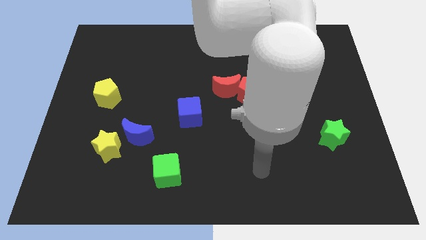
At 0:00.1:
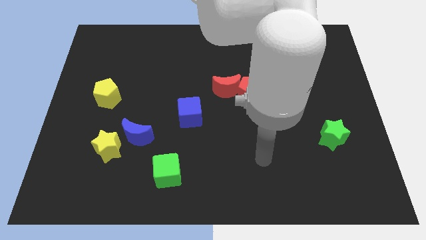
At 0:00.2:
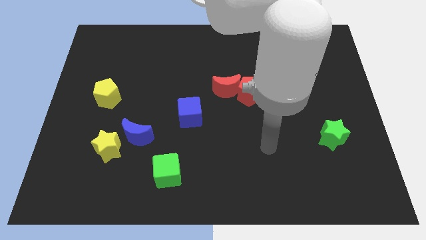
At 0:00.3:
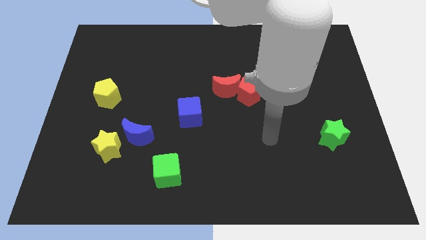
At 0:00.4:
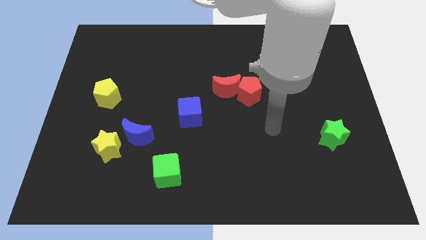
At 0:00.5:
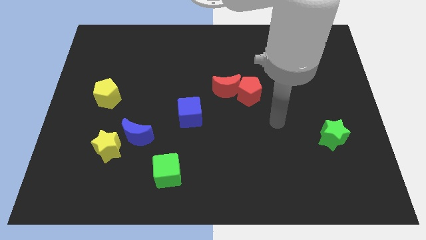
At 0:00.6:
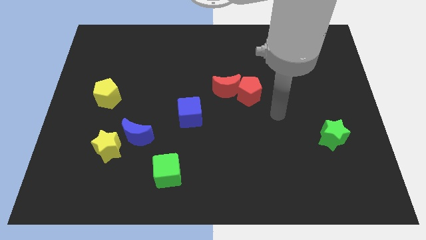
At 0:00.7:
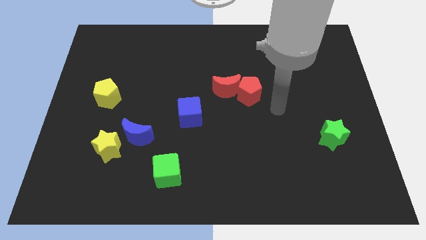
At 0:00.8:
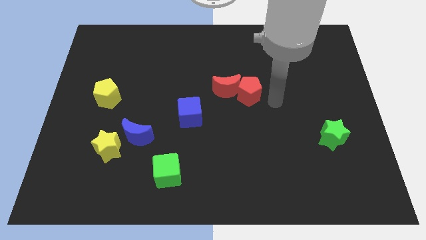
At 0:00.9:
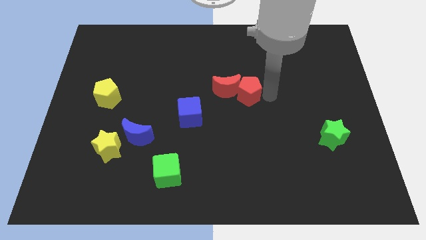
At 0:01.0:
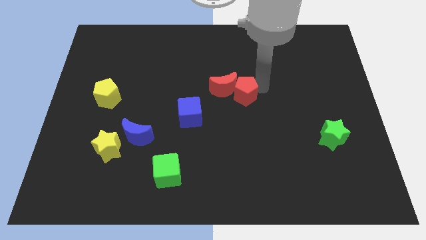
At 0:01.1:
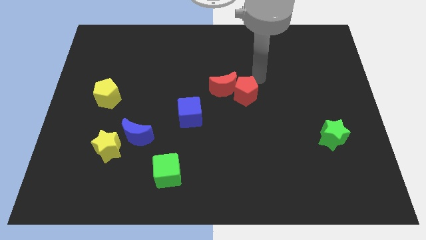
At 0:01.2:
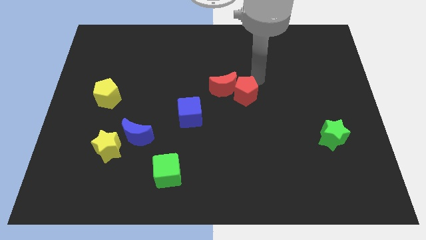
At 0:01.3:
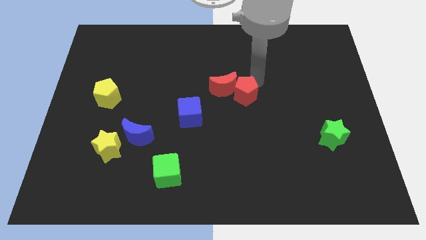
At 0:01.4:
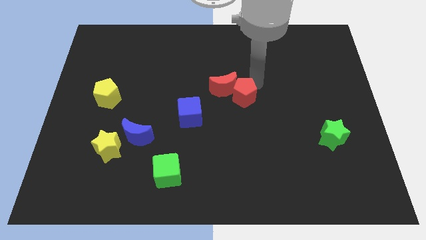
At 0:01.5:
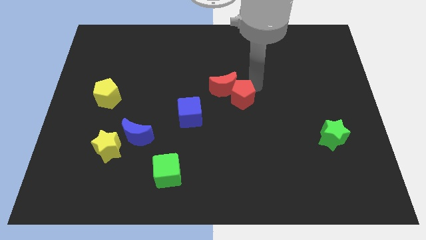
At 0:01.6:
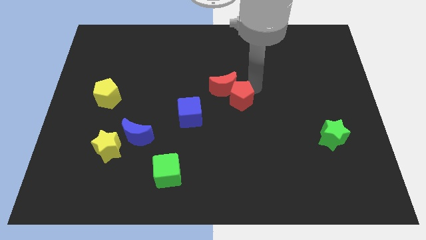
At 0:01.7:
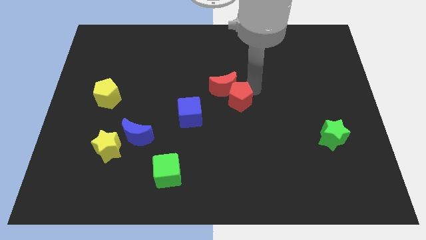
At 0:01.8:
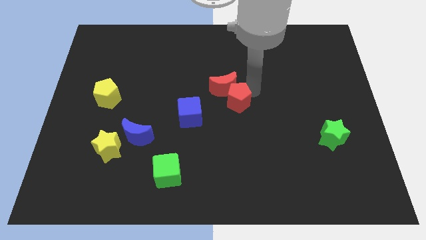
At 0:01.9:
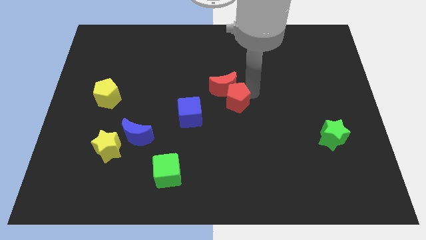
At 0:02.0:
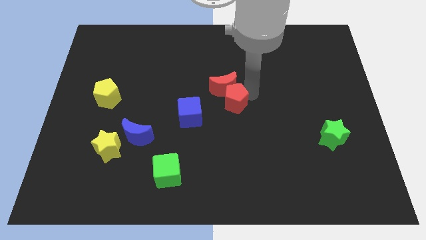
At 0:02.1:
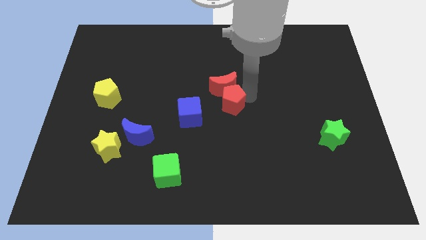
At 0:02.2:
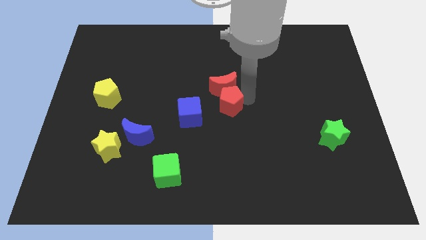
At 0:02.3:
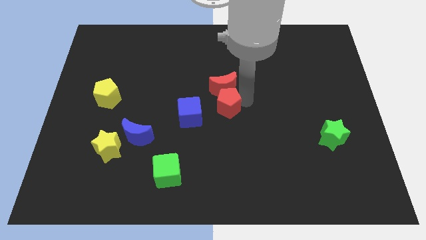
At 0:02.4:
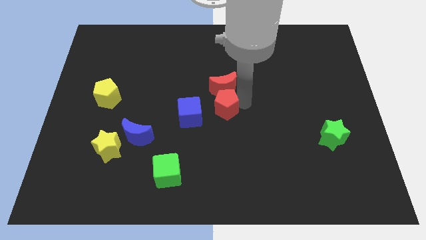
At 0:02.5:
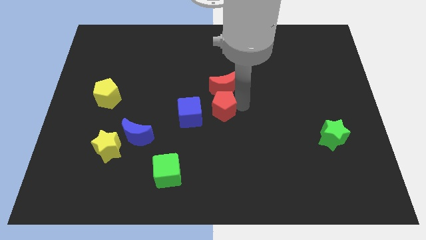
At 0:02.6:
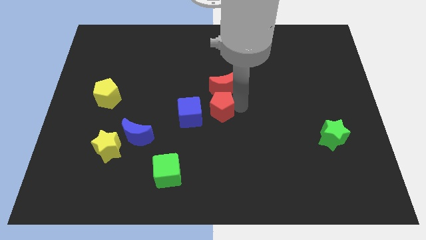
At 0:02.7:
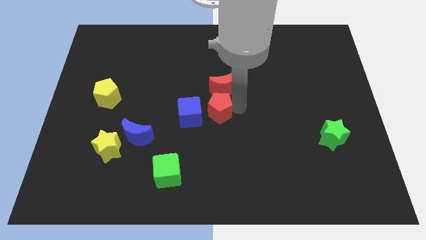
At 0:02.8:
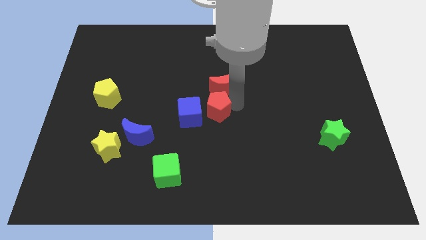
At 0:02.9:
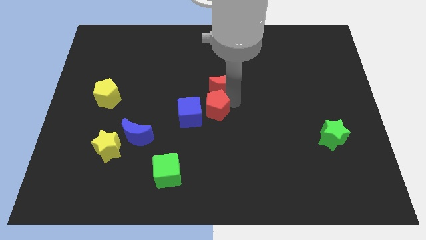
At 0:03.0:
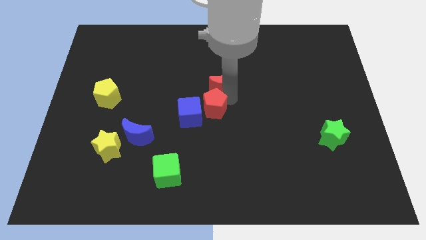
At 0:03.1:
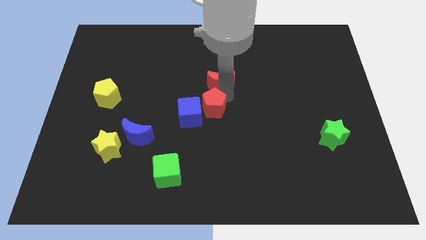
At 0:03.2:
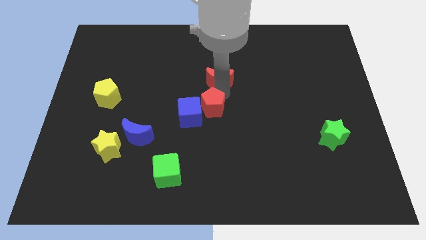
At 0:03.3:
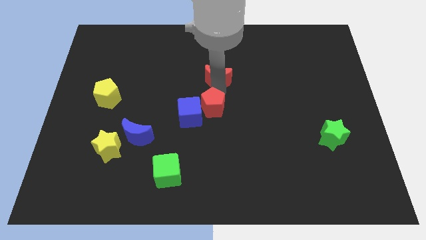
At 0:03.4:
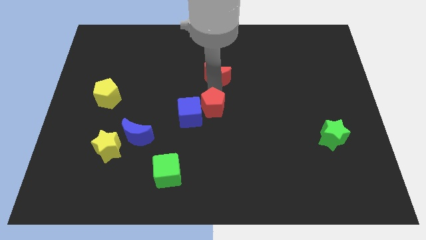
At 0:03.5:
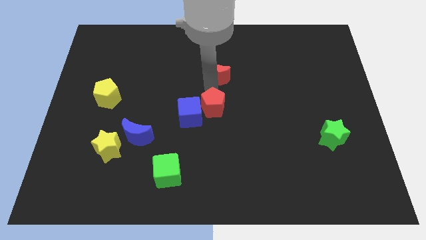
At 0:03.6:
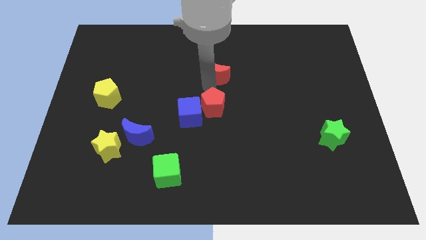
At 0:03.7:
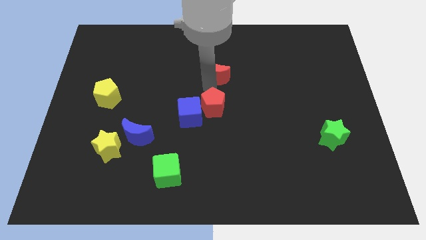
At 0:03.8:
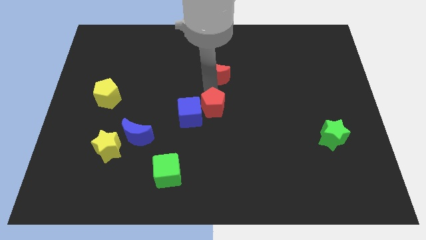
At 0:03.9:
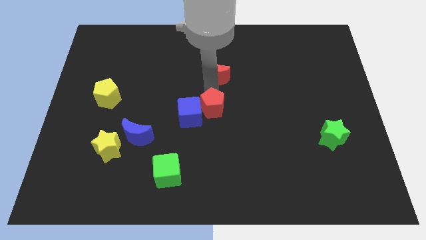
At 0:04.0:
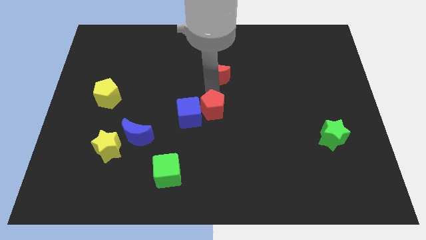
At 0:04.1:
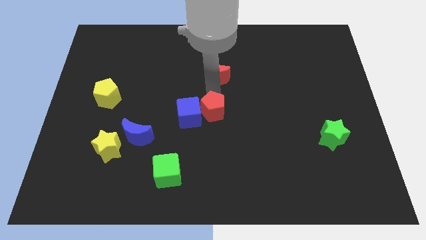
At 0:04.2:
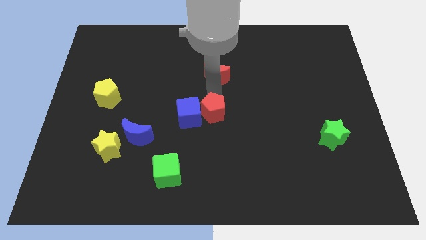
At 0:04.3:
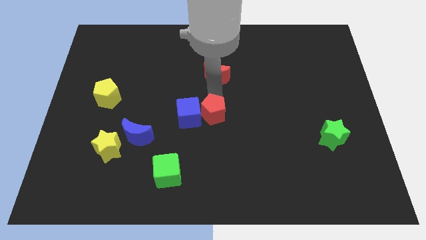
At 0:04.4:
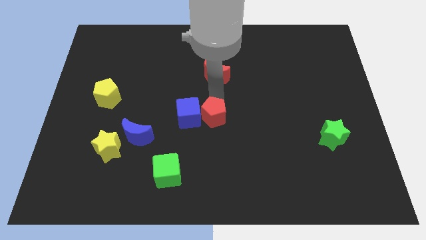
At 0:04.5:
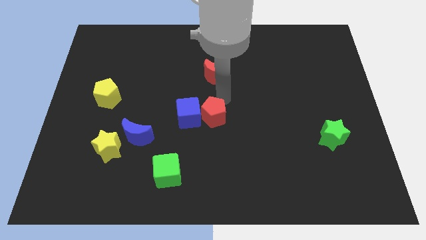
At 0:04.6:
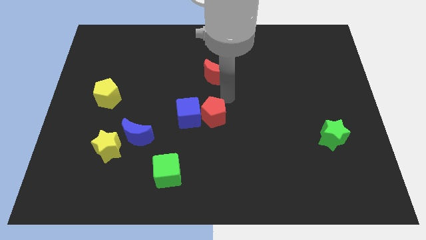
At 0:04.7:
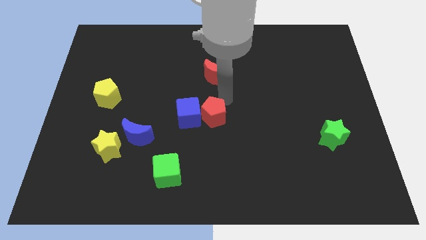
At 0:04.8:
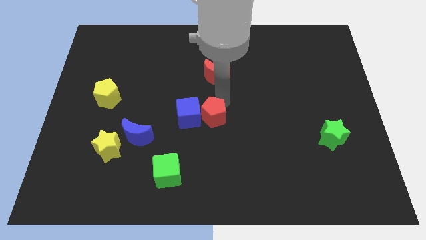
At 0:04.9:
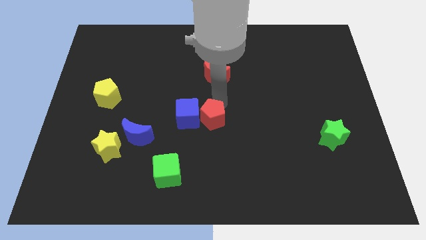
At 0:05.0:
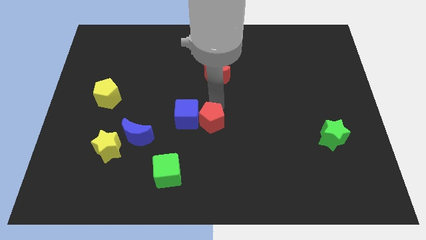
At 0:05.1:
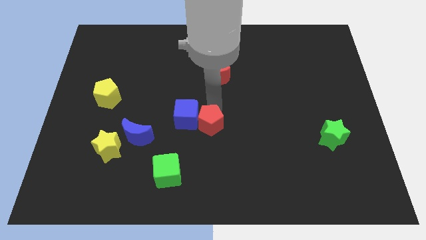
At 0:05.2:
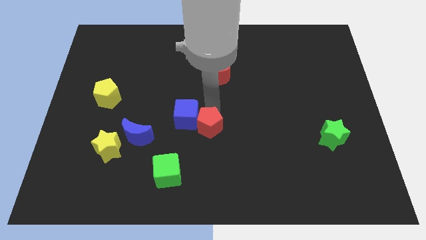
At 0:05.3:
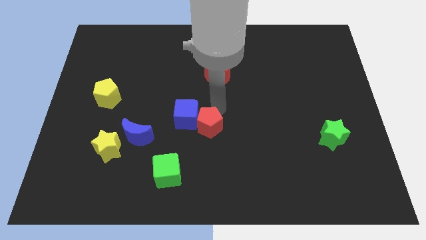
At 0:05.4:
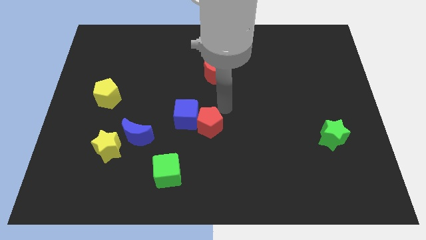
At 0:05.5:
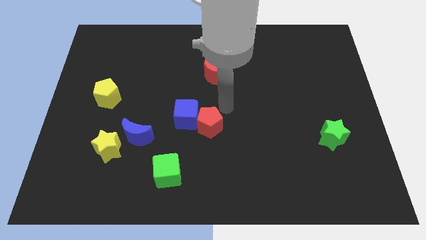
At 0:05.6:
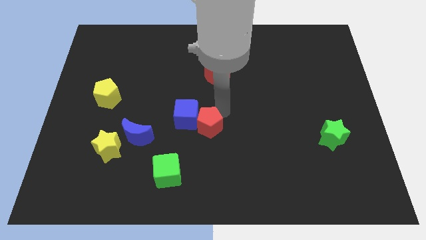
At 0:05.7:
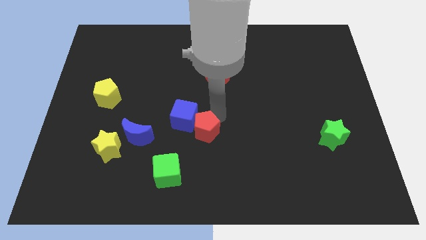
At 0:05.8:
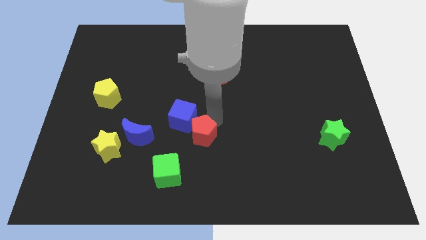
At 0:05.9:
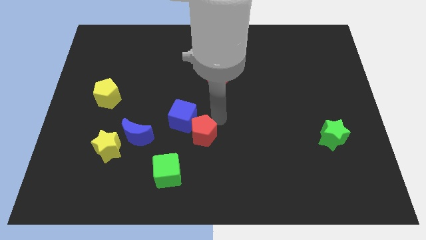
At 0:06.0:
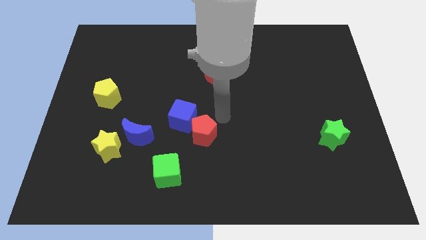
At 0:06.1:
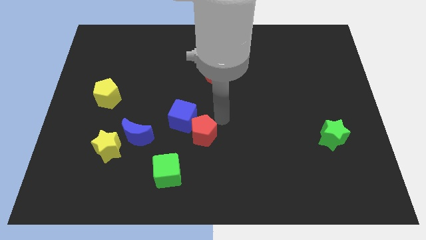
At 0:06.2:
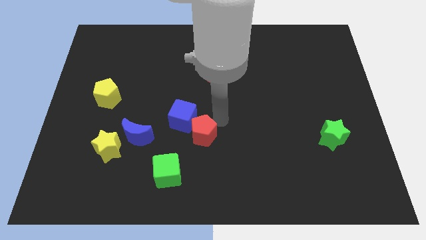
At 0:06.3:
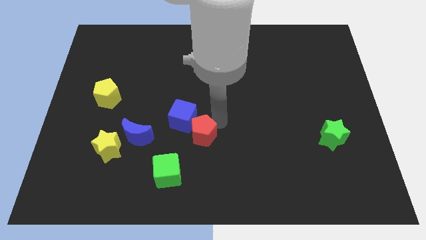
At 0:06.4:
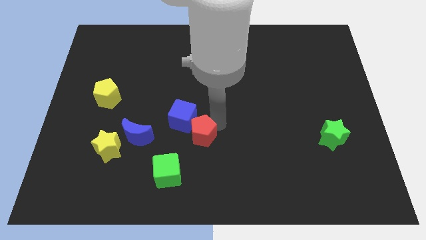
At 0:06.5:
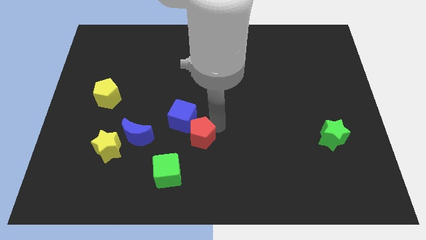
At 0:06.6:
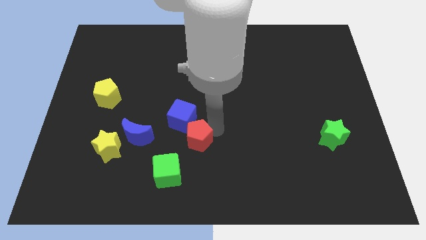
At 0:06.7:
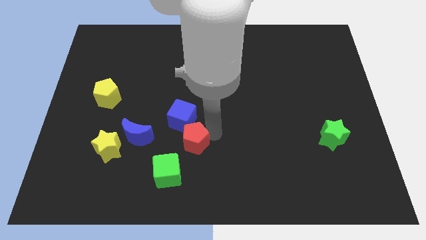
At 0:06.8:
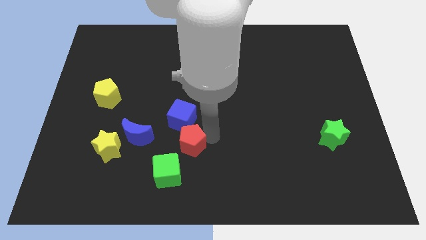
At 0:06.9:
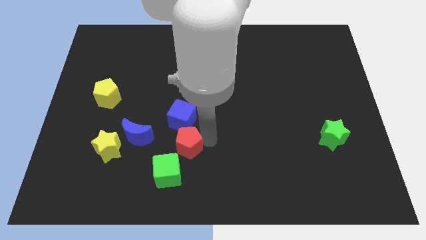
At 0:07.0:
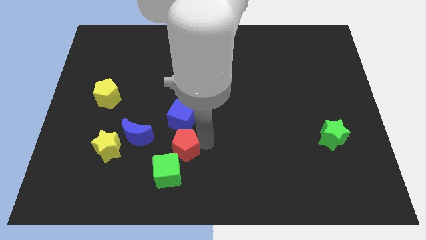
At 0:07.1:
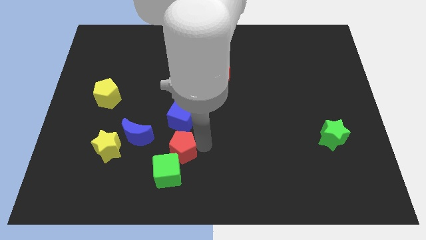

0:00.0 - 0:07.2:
push the red pentagon close to the green cube

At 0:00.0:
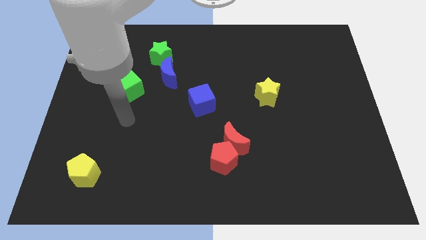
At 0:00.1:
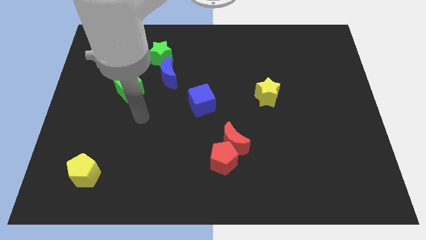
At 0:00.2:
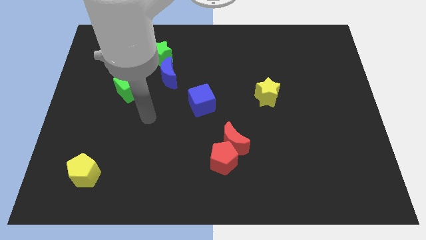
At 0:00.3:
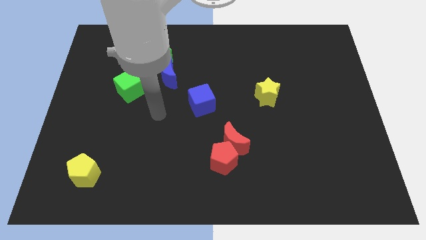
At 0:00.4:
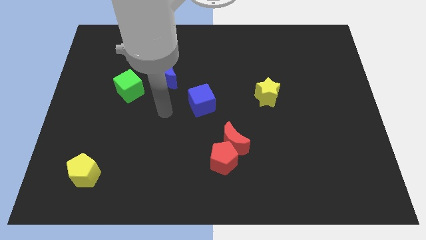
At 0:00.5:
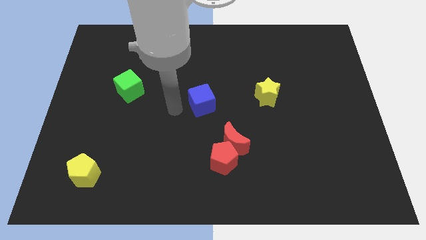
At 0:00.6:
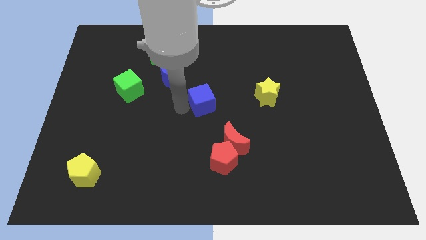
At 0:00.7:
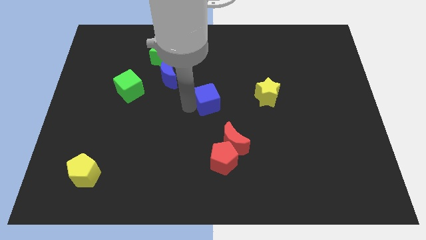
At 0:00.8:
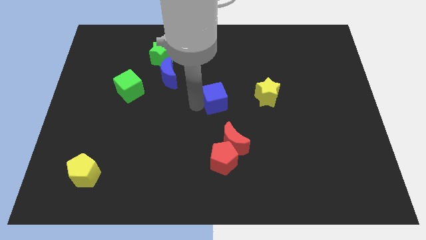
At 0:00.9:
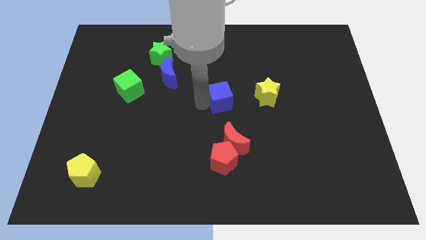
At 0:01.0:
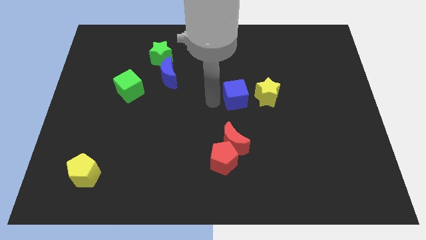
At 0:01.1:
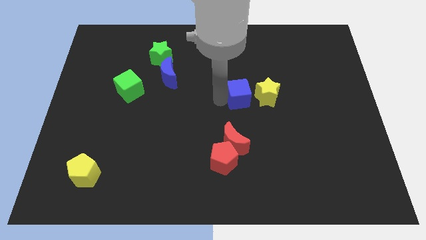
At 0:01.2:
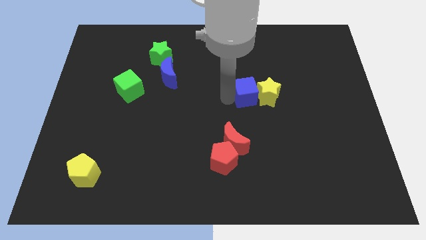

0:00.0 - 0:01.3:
slide the blue cube next to the yellow star
